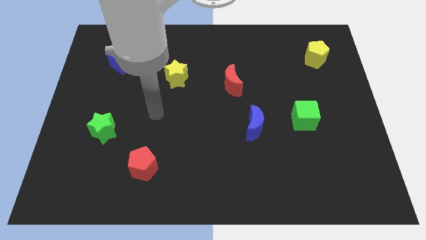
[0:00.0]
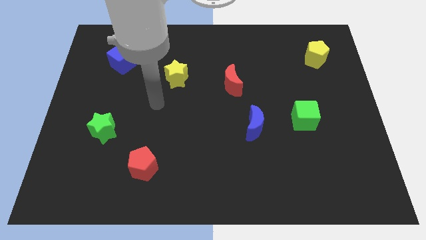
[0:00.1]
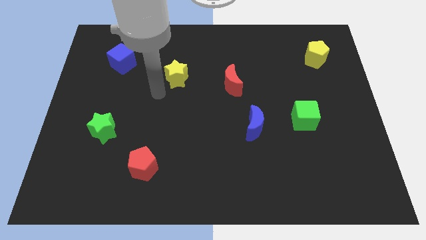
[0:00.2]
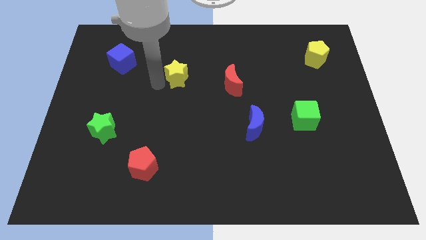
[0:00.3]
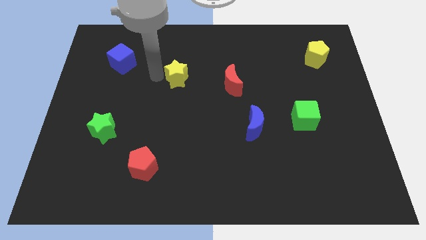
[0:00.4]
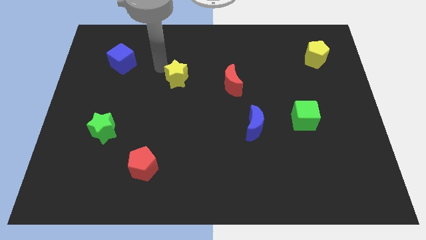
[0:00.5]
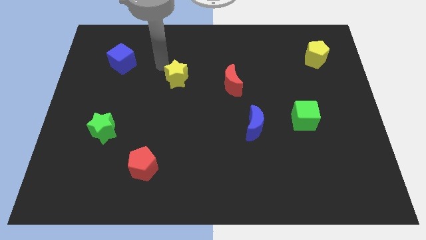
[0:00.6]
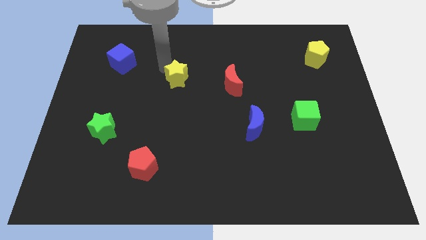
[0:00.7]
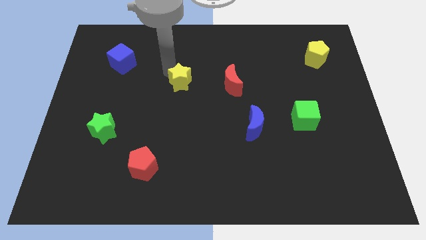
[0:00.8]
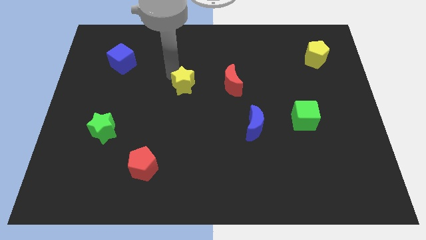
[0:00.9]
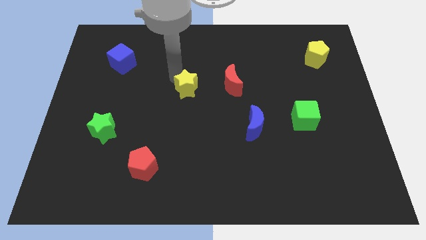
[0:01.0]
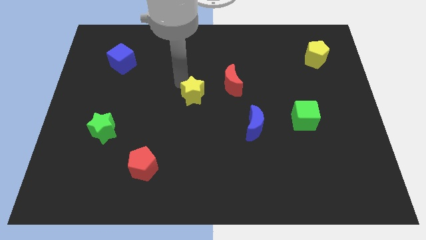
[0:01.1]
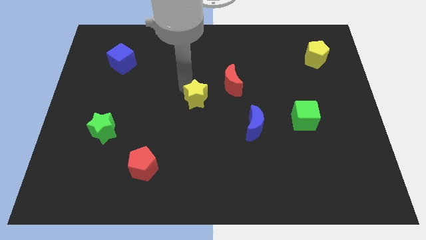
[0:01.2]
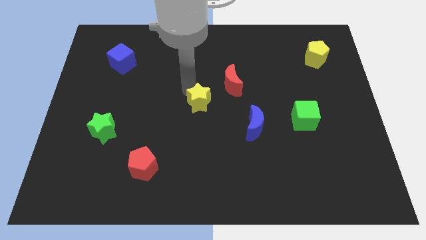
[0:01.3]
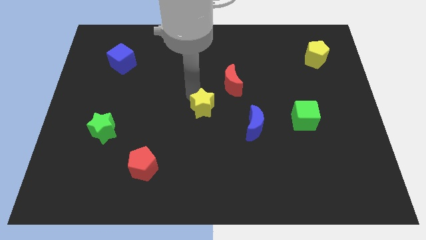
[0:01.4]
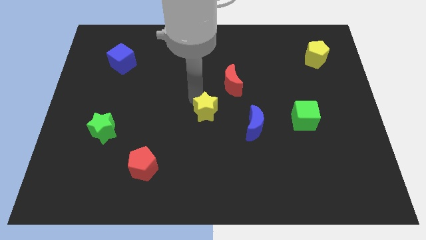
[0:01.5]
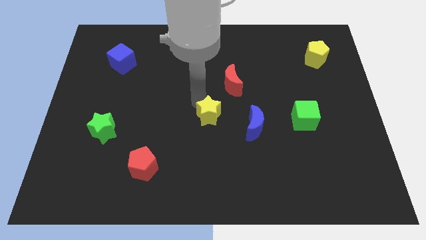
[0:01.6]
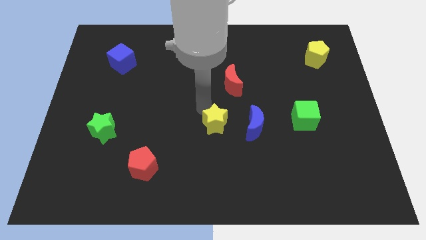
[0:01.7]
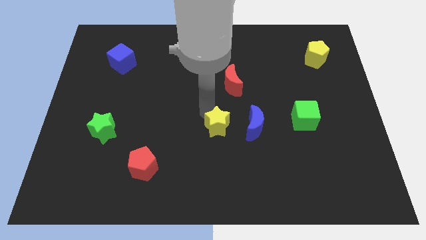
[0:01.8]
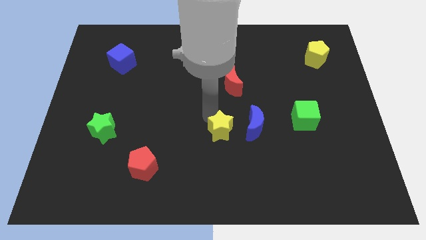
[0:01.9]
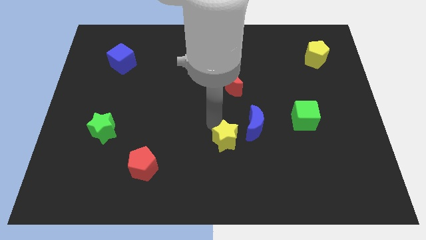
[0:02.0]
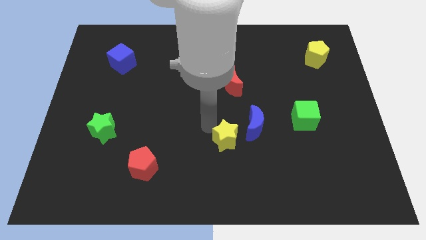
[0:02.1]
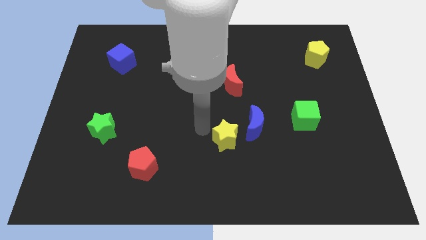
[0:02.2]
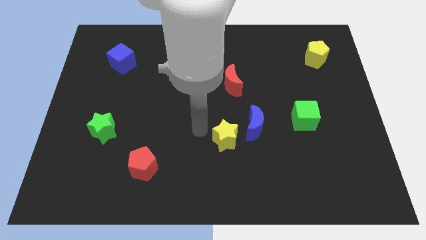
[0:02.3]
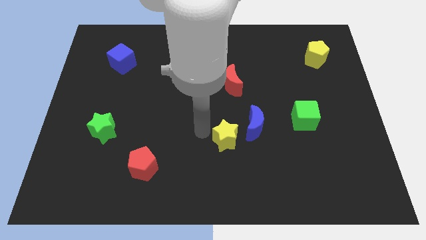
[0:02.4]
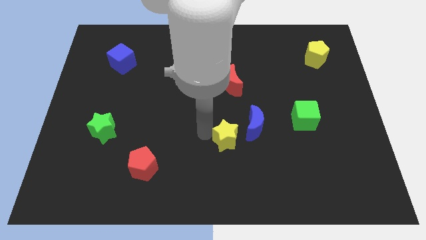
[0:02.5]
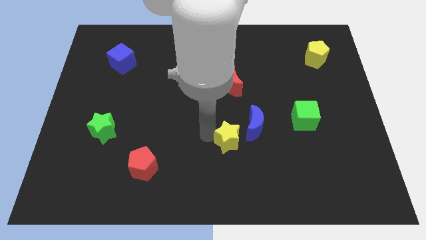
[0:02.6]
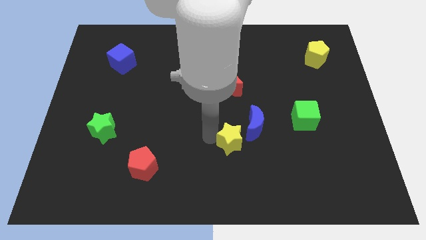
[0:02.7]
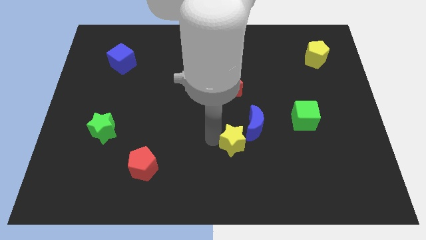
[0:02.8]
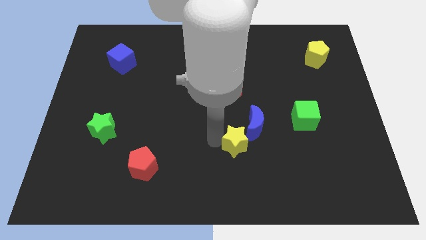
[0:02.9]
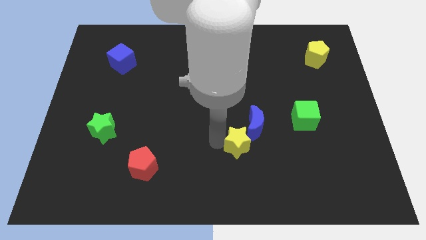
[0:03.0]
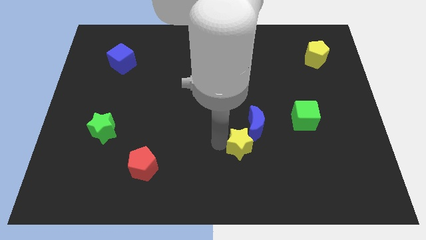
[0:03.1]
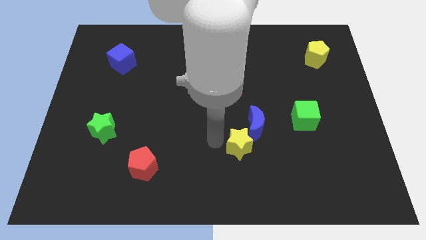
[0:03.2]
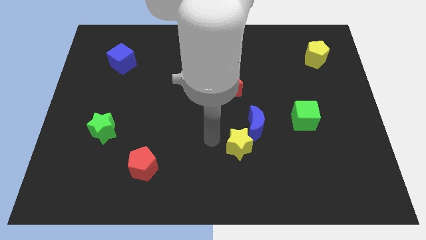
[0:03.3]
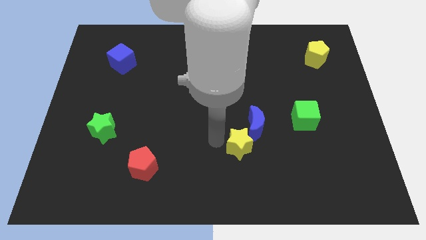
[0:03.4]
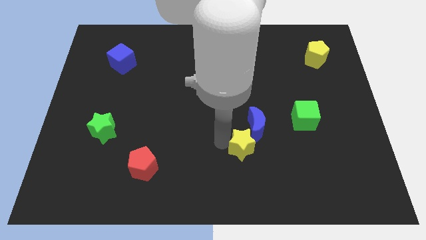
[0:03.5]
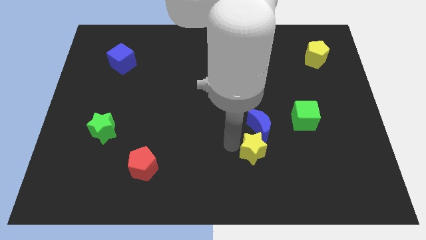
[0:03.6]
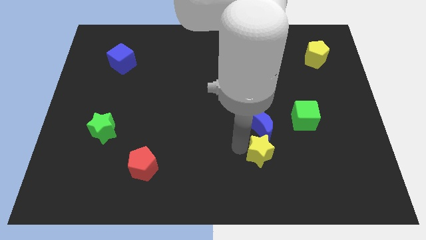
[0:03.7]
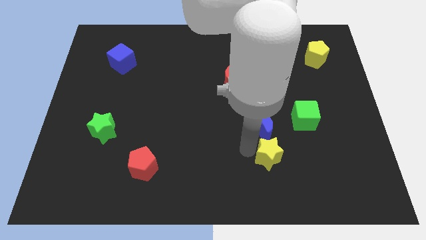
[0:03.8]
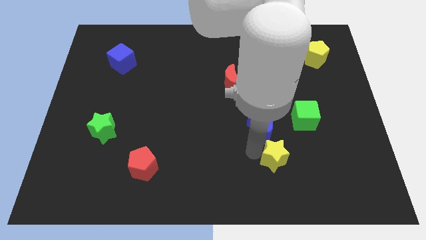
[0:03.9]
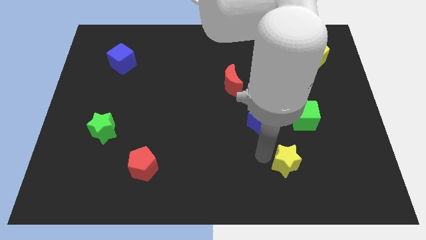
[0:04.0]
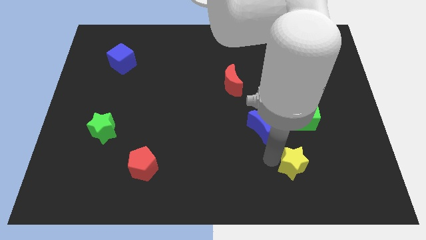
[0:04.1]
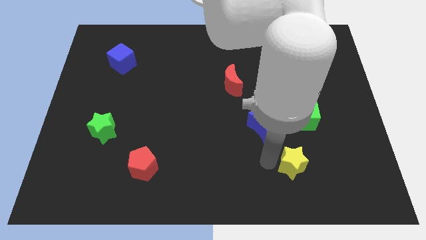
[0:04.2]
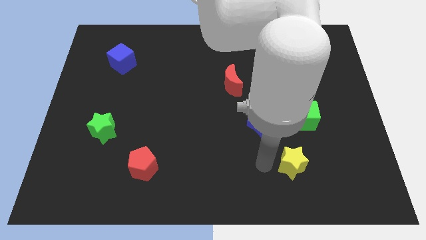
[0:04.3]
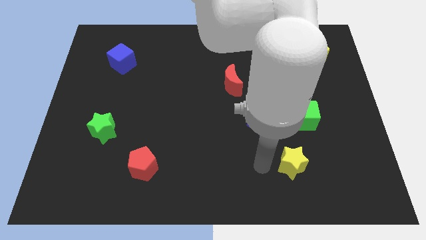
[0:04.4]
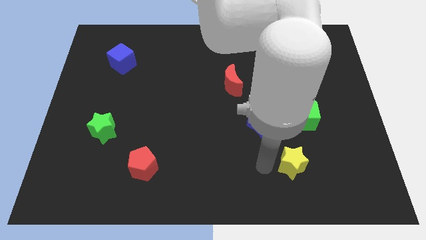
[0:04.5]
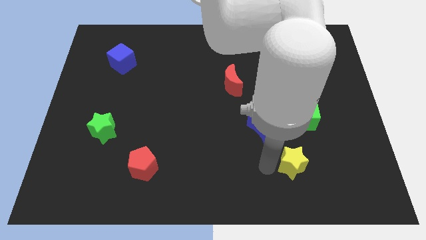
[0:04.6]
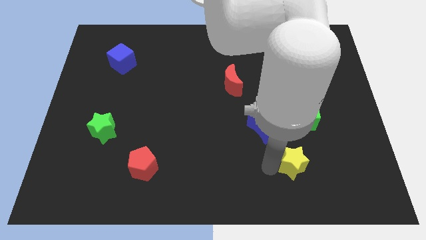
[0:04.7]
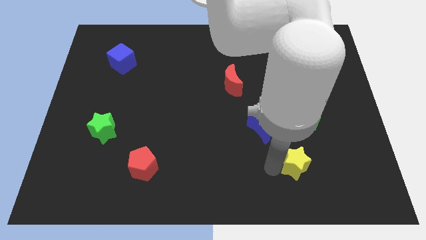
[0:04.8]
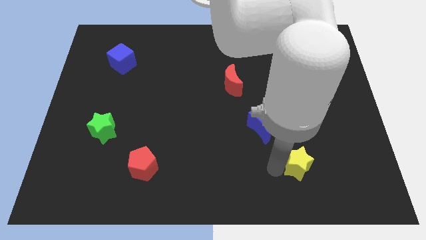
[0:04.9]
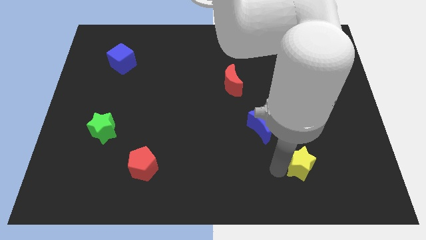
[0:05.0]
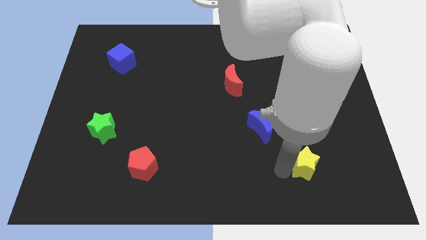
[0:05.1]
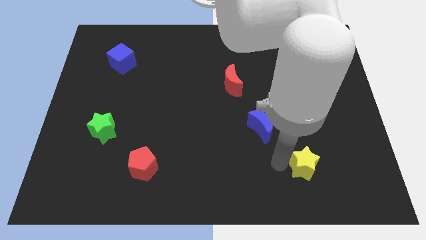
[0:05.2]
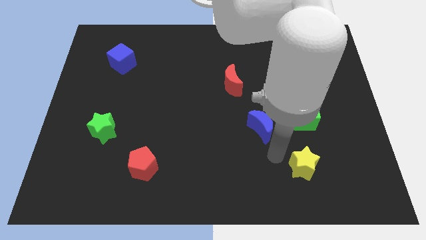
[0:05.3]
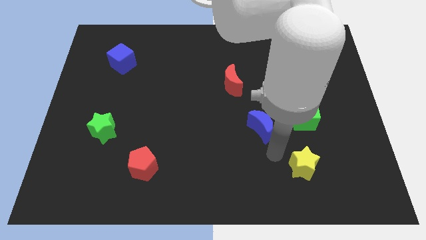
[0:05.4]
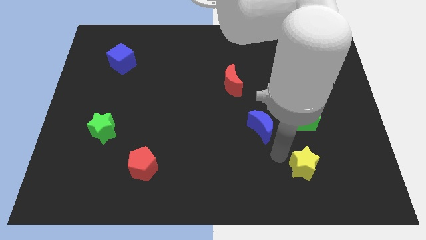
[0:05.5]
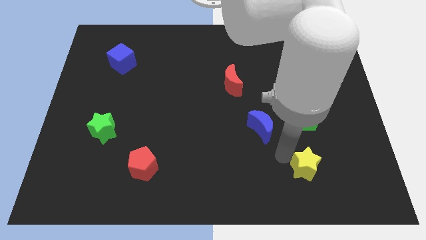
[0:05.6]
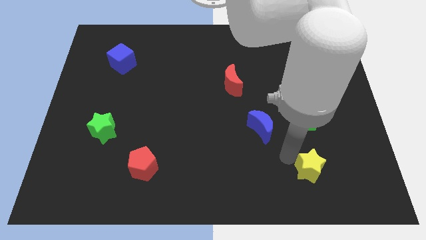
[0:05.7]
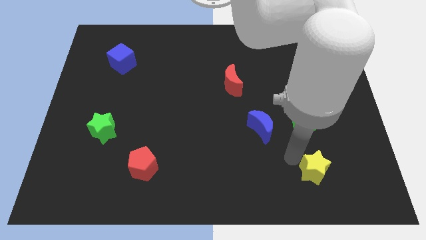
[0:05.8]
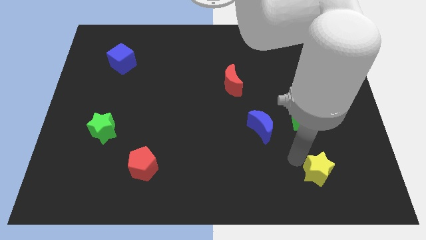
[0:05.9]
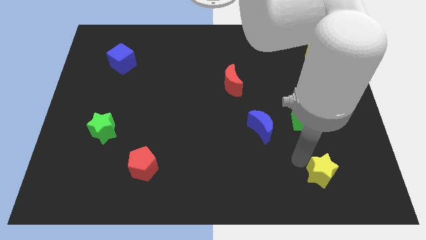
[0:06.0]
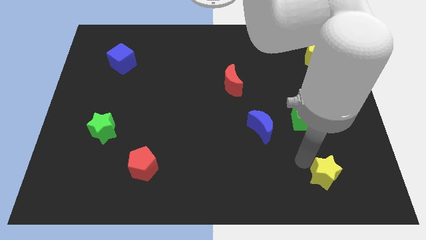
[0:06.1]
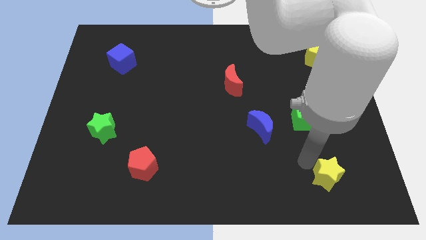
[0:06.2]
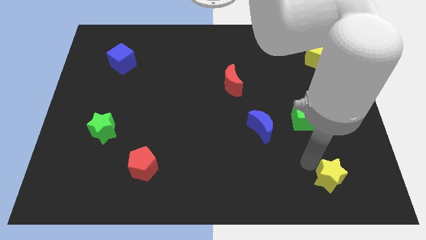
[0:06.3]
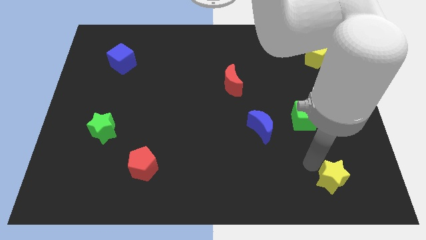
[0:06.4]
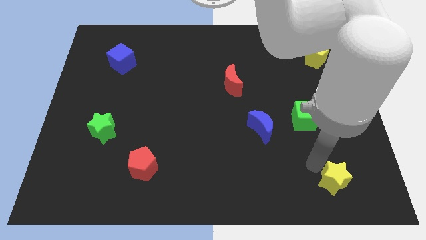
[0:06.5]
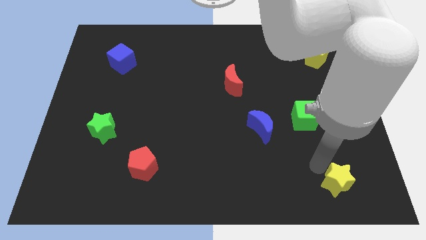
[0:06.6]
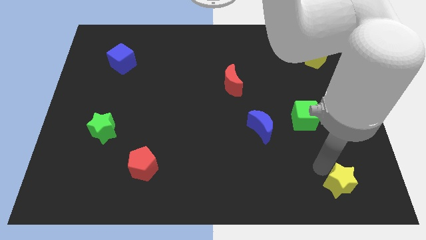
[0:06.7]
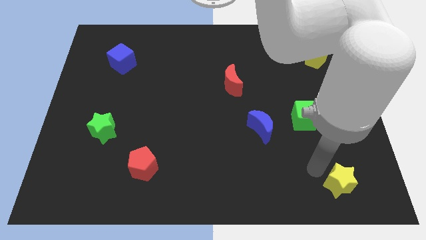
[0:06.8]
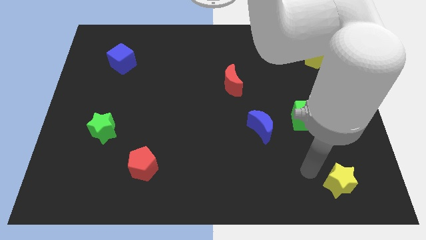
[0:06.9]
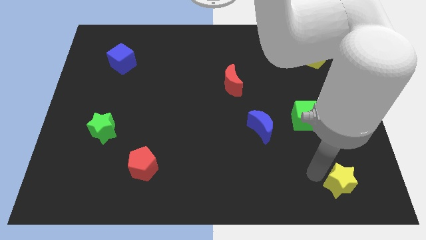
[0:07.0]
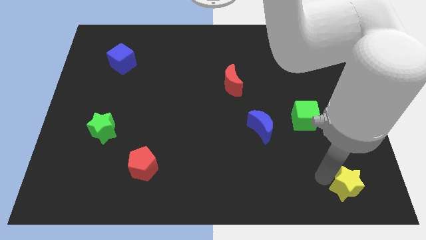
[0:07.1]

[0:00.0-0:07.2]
push the yellow star to the bottom right of the board
